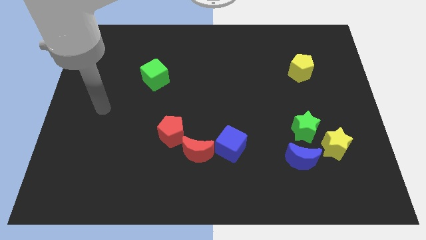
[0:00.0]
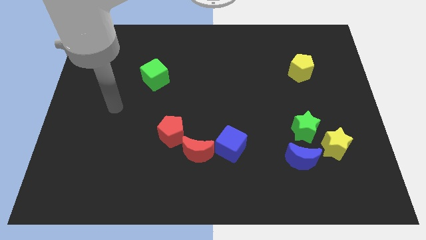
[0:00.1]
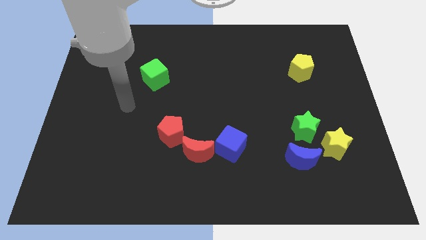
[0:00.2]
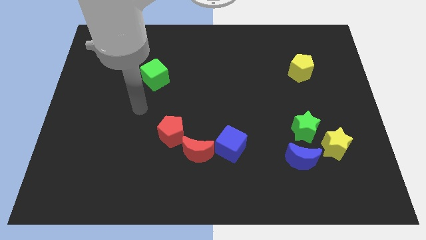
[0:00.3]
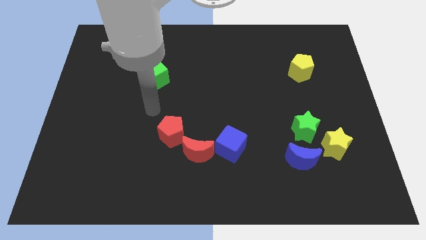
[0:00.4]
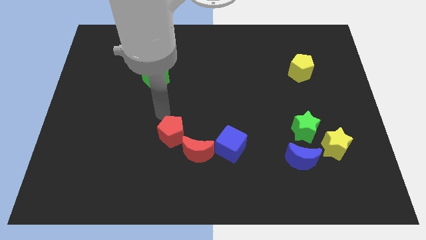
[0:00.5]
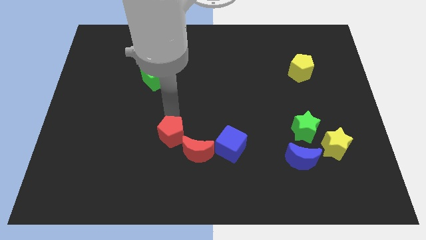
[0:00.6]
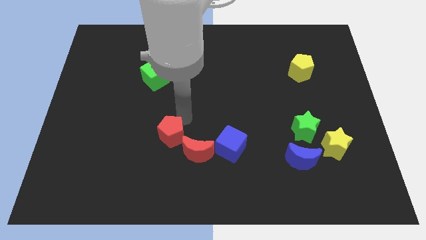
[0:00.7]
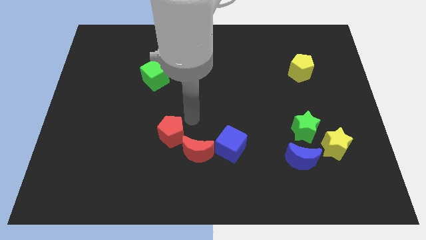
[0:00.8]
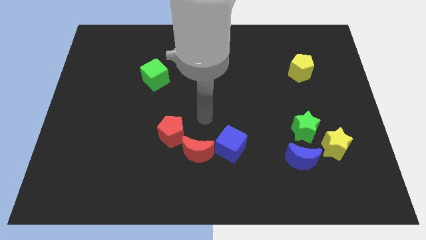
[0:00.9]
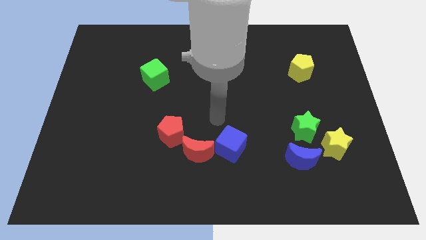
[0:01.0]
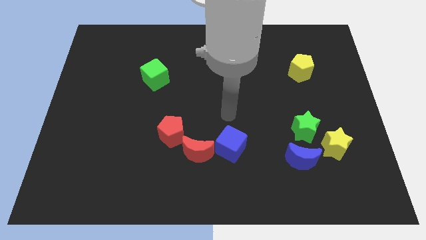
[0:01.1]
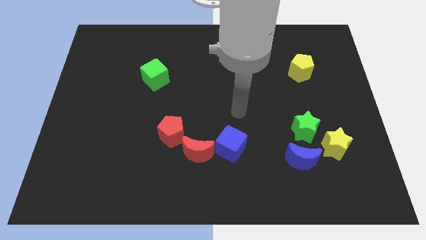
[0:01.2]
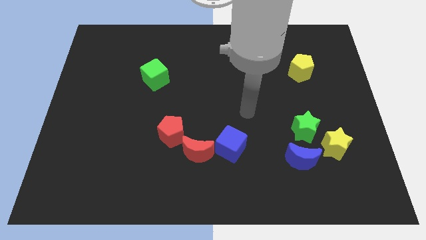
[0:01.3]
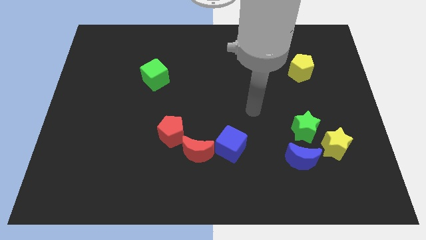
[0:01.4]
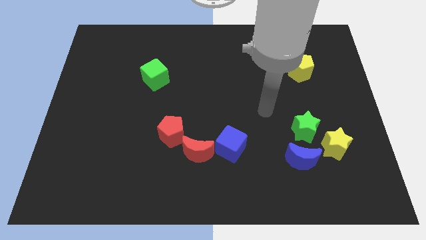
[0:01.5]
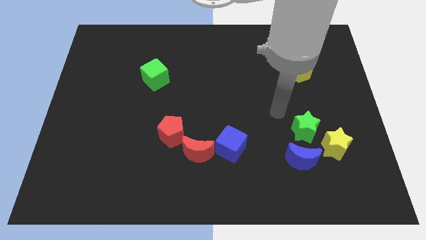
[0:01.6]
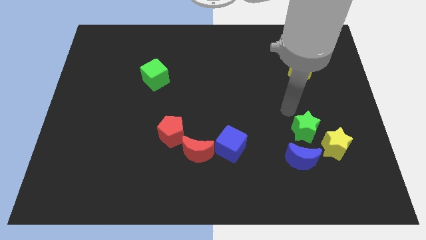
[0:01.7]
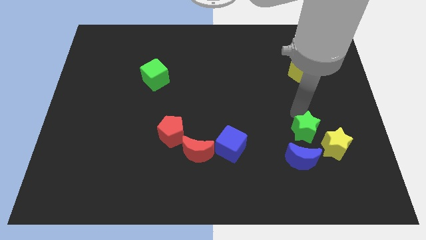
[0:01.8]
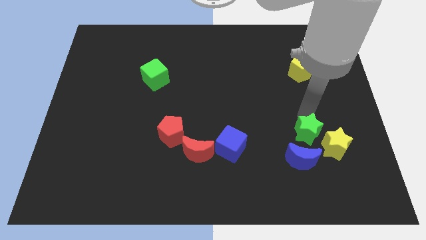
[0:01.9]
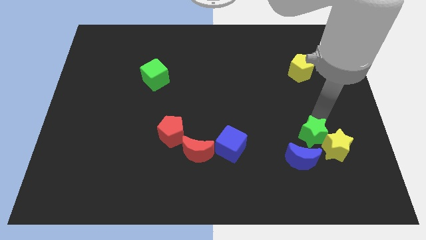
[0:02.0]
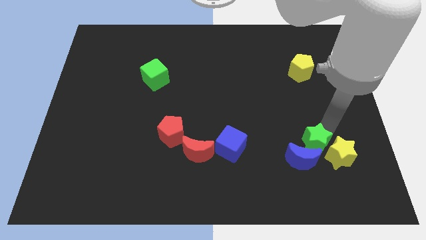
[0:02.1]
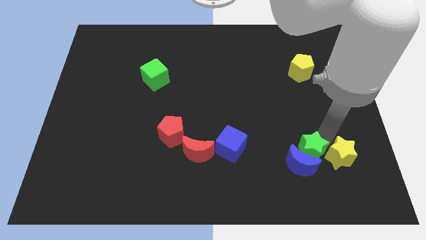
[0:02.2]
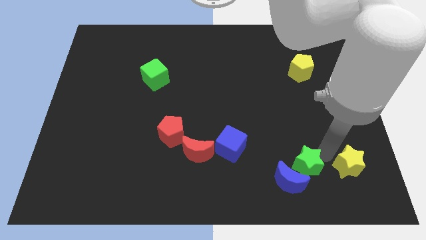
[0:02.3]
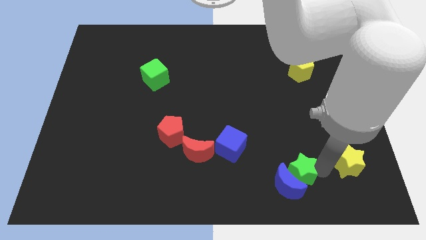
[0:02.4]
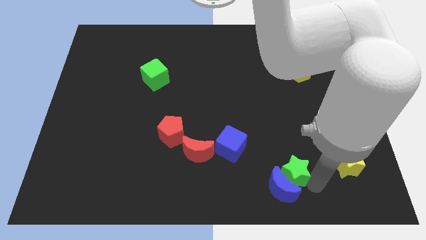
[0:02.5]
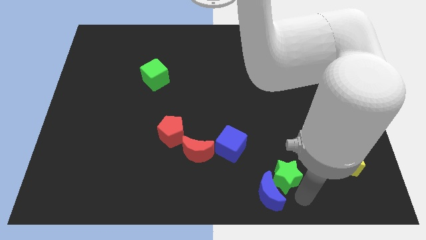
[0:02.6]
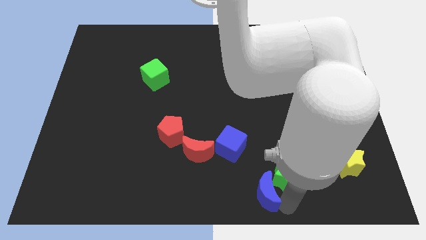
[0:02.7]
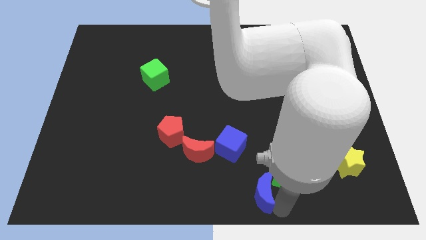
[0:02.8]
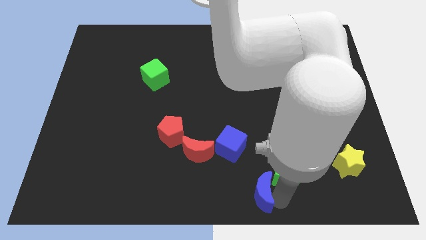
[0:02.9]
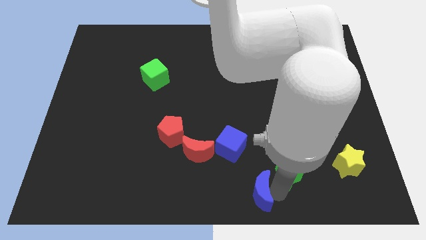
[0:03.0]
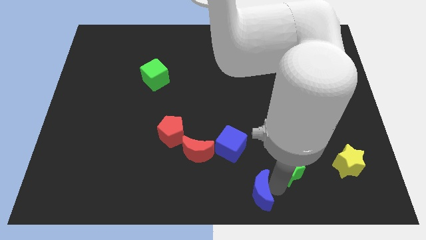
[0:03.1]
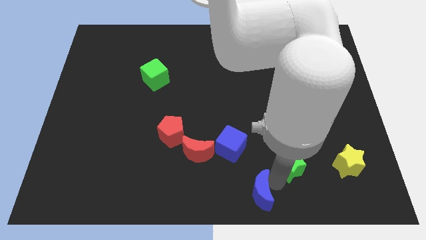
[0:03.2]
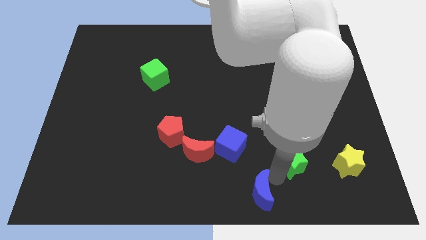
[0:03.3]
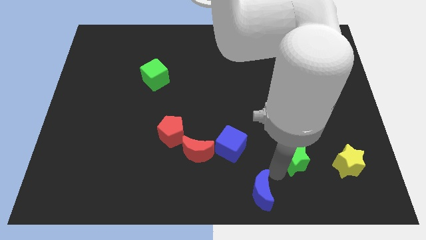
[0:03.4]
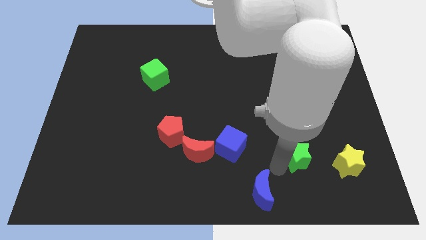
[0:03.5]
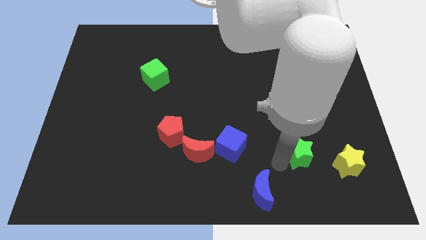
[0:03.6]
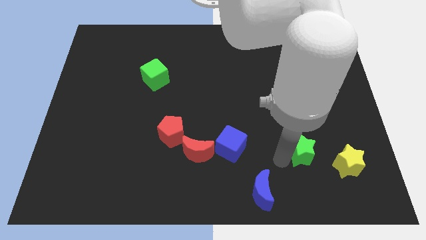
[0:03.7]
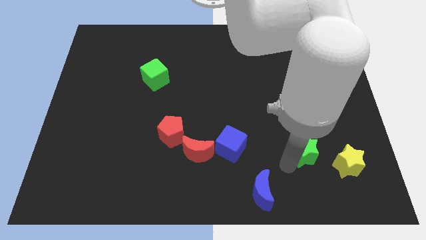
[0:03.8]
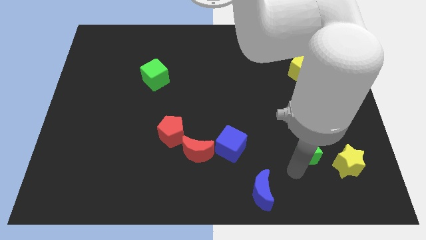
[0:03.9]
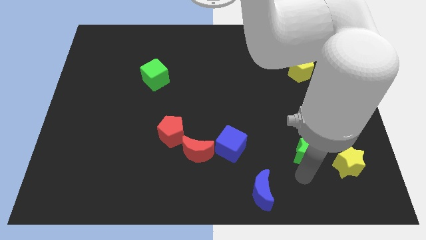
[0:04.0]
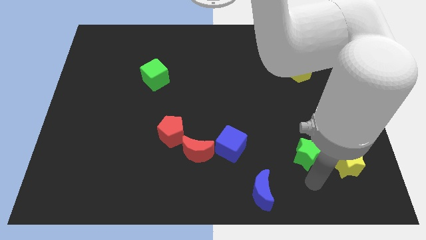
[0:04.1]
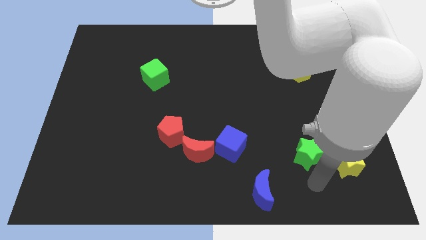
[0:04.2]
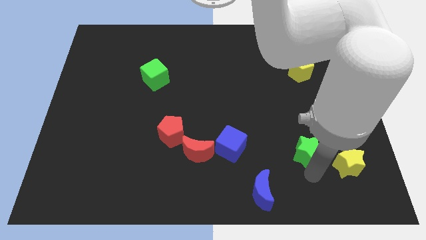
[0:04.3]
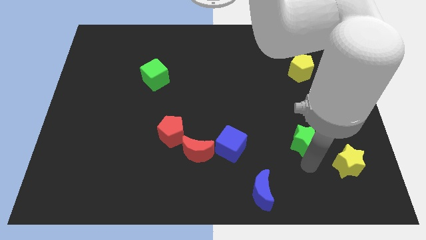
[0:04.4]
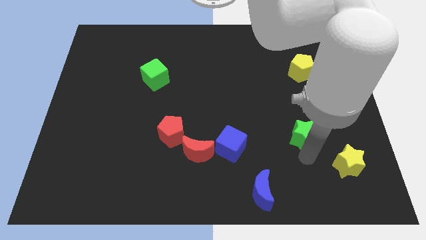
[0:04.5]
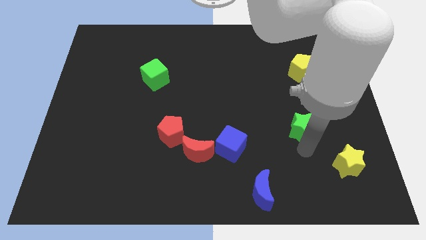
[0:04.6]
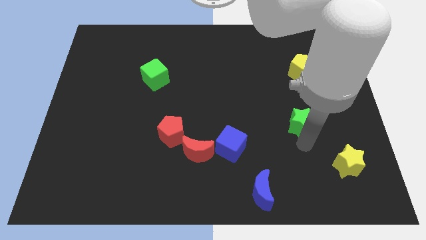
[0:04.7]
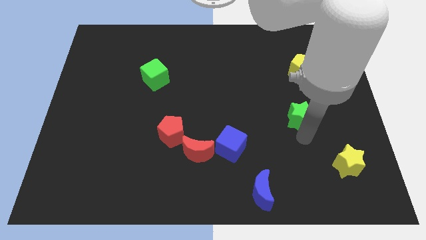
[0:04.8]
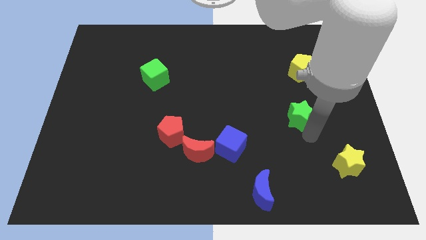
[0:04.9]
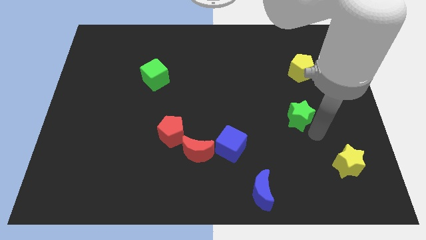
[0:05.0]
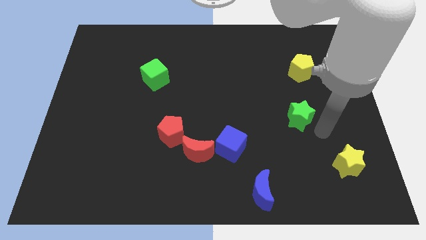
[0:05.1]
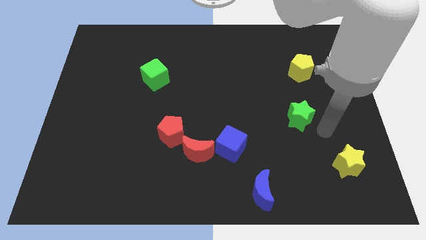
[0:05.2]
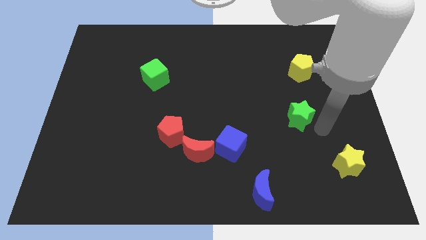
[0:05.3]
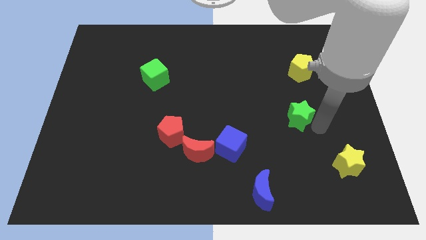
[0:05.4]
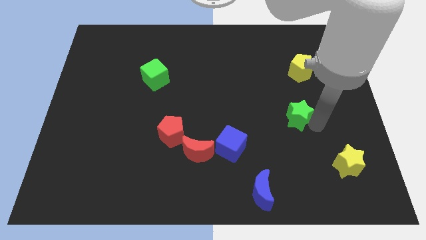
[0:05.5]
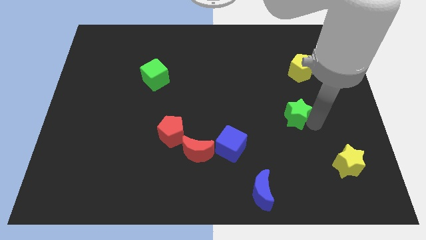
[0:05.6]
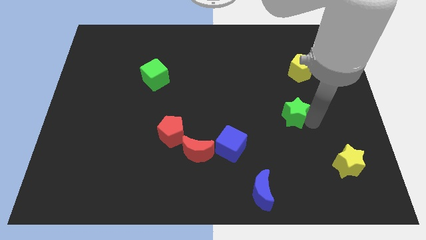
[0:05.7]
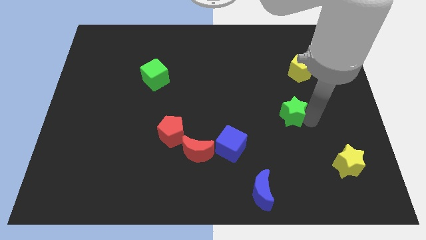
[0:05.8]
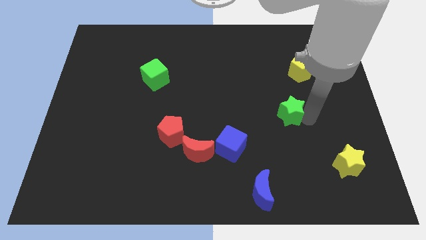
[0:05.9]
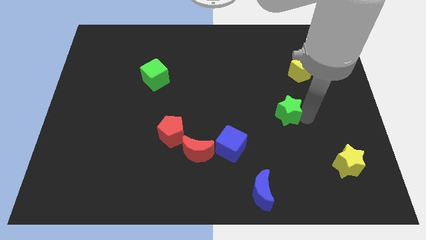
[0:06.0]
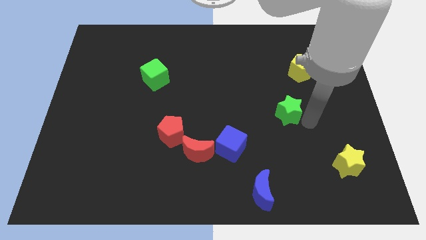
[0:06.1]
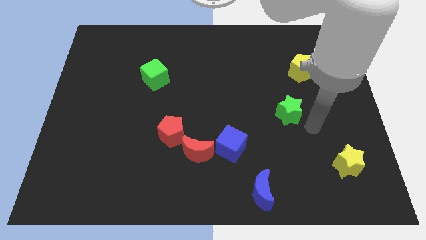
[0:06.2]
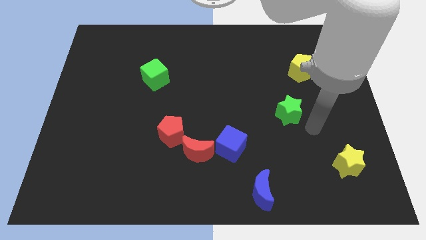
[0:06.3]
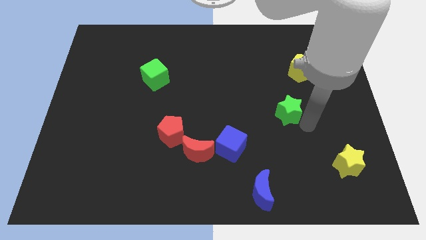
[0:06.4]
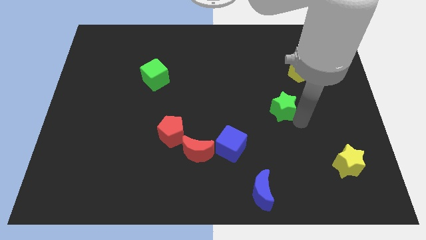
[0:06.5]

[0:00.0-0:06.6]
move the green star upwards and then left a little

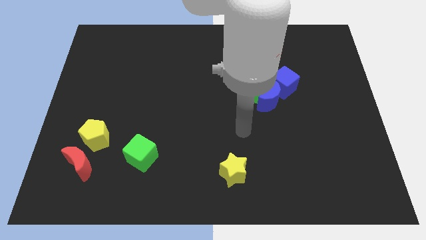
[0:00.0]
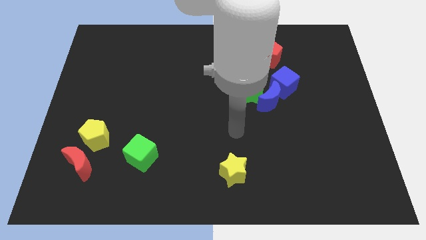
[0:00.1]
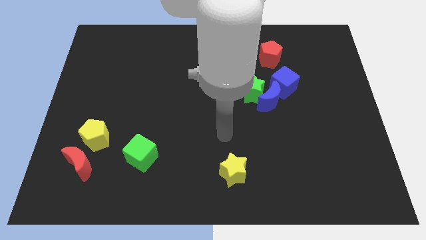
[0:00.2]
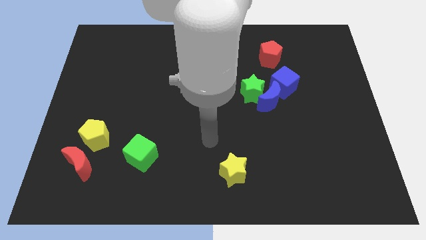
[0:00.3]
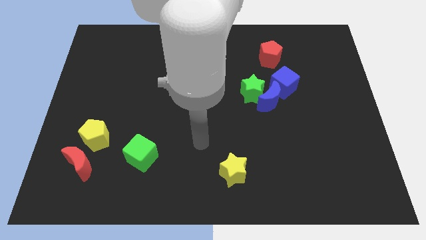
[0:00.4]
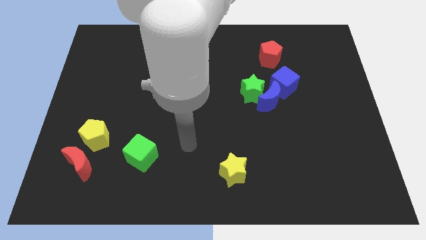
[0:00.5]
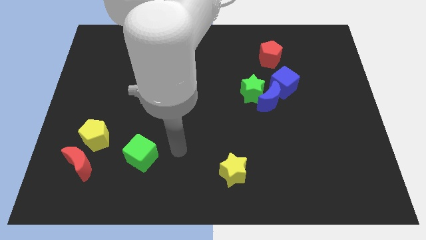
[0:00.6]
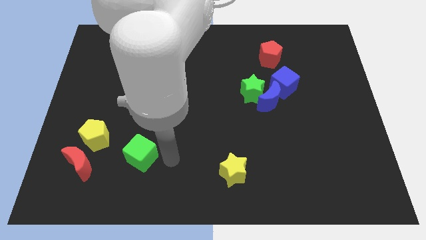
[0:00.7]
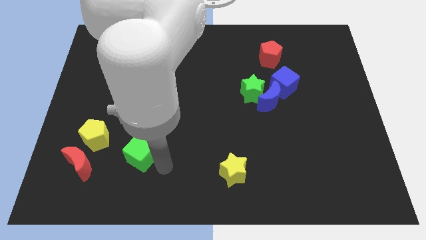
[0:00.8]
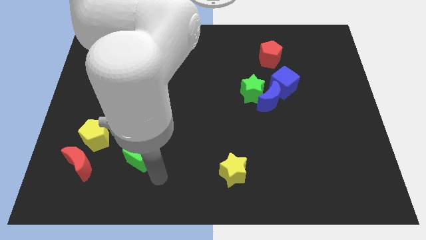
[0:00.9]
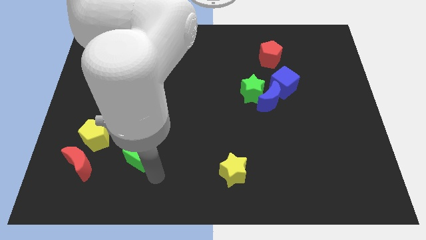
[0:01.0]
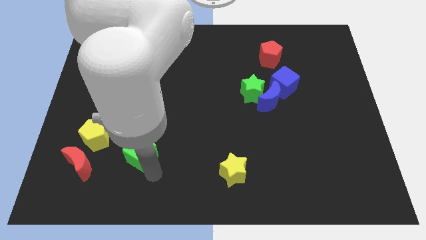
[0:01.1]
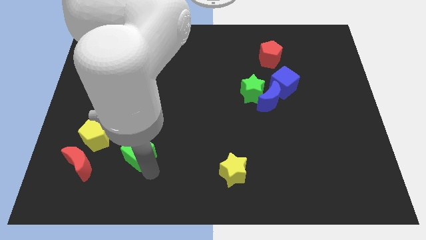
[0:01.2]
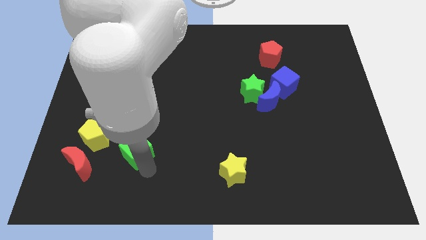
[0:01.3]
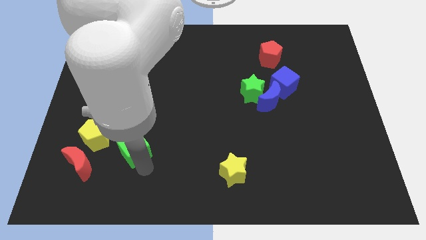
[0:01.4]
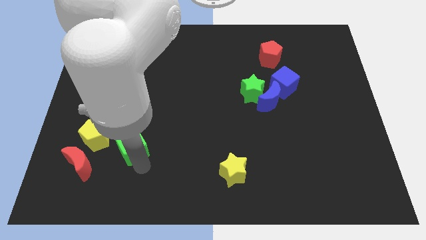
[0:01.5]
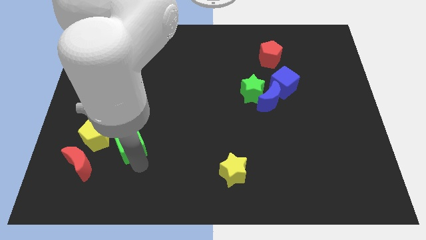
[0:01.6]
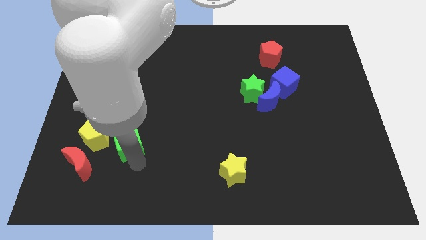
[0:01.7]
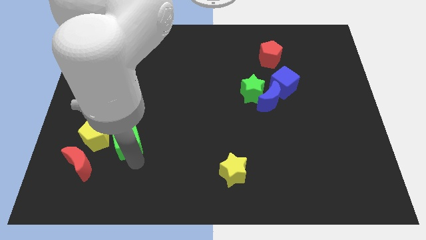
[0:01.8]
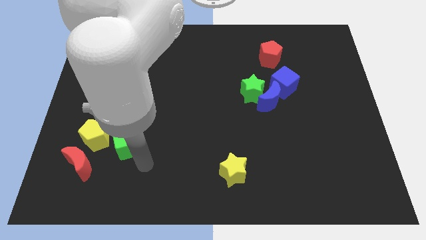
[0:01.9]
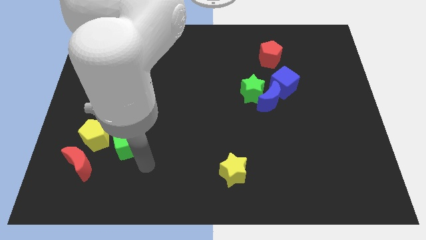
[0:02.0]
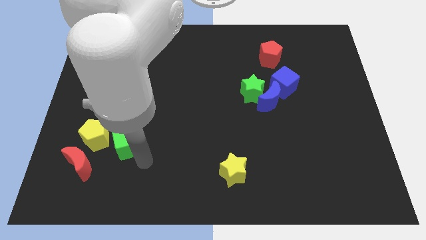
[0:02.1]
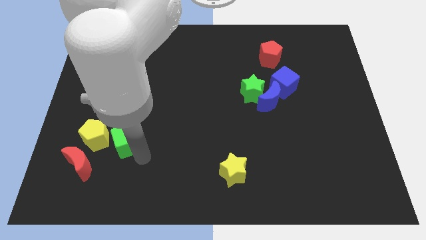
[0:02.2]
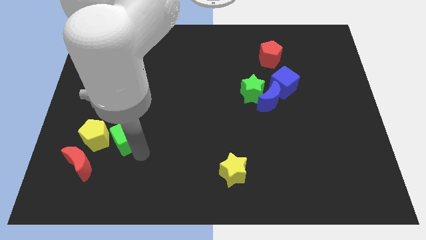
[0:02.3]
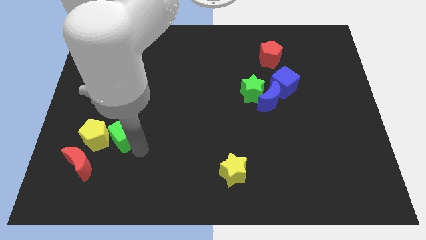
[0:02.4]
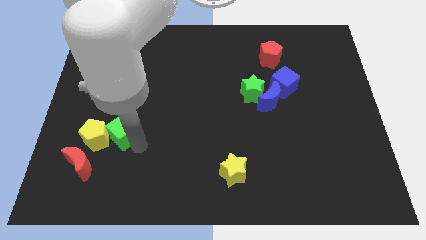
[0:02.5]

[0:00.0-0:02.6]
slightly slide the green cube upwards and left
